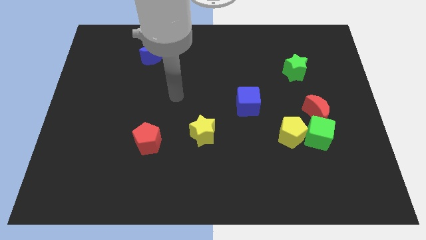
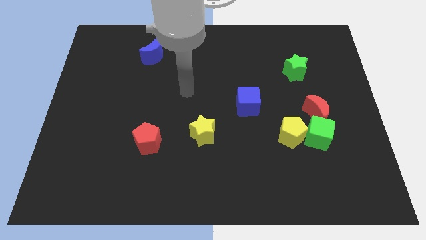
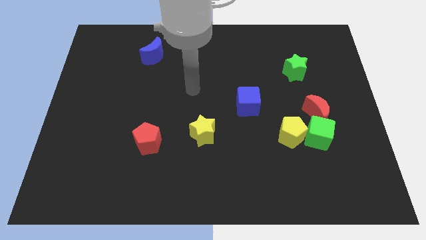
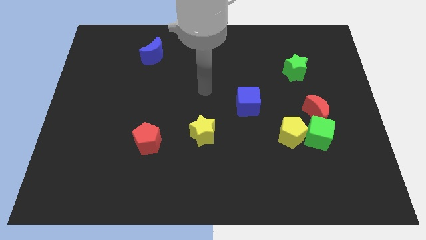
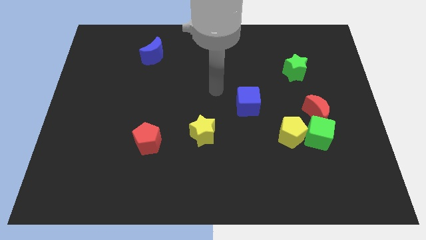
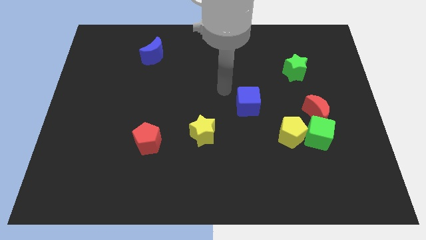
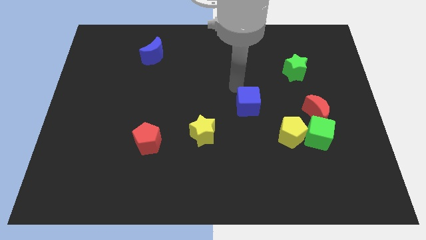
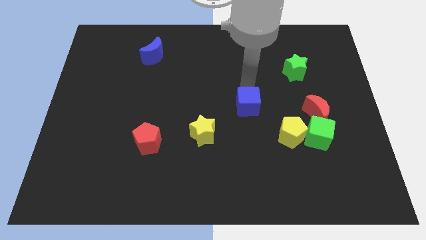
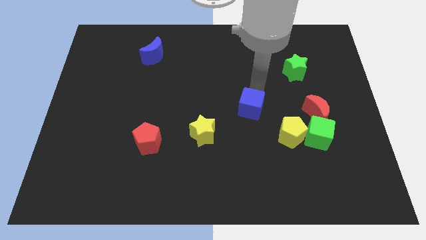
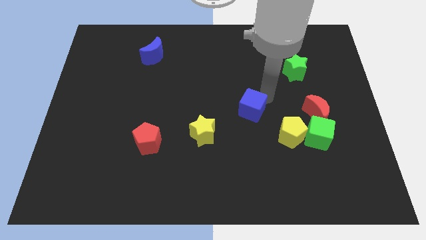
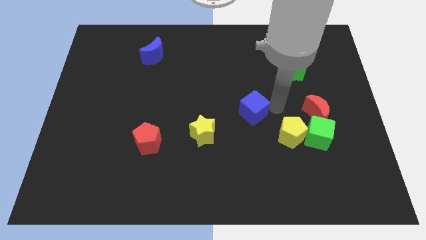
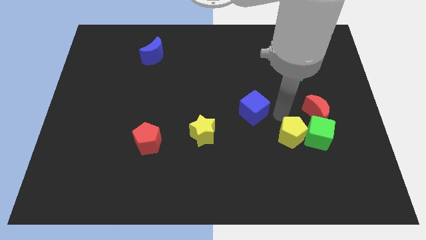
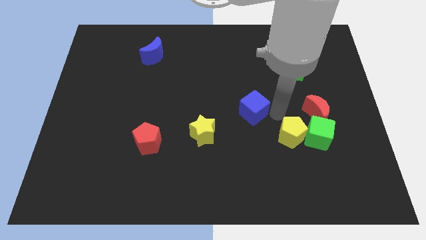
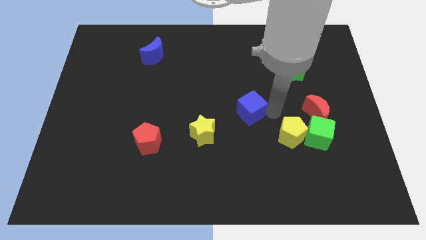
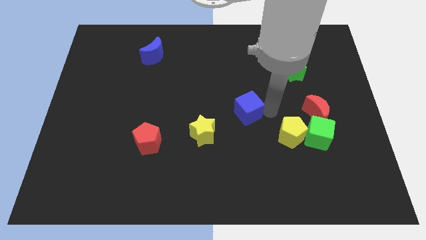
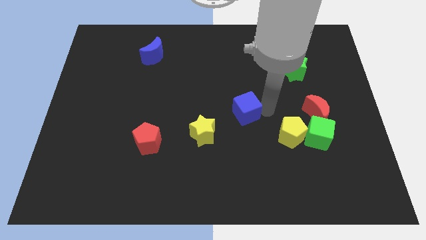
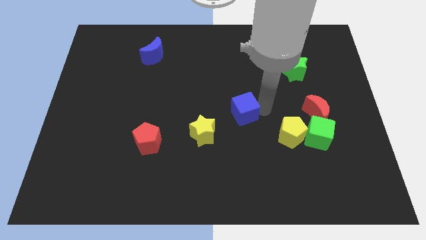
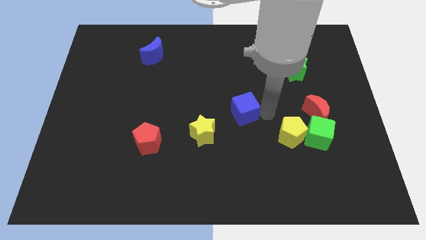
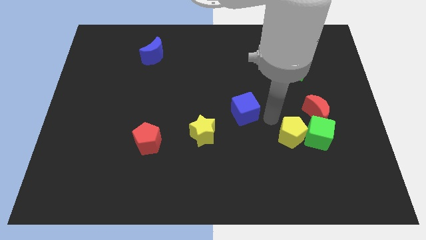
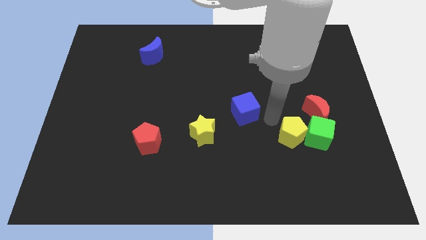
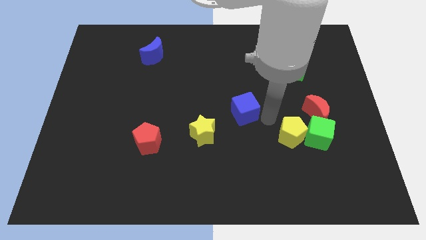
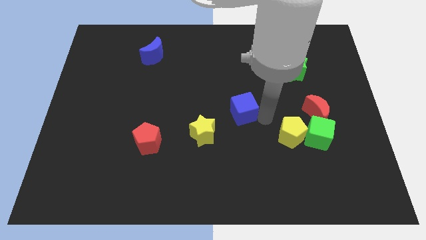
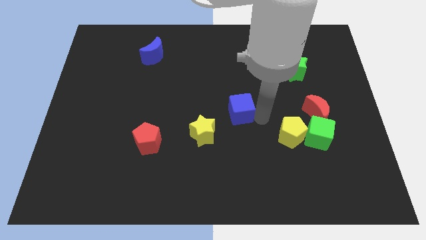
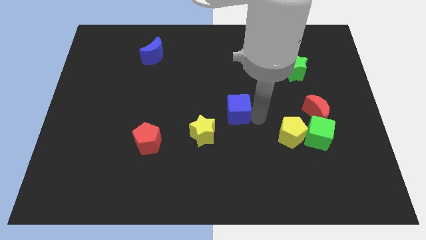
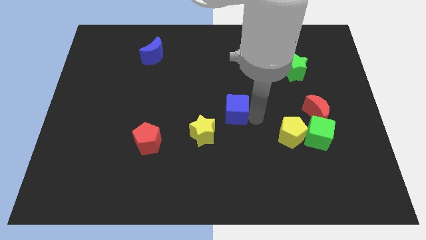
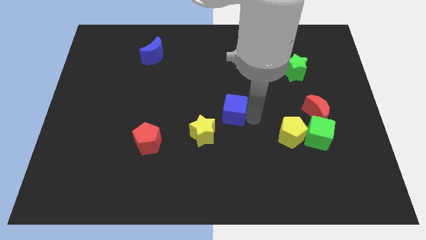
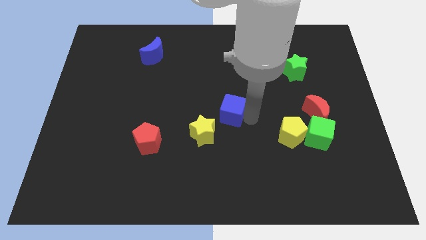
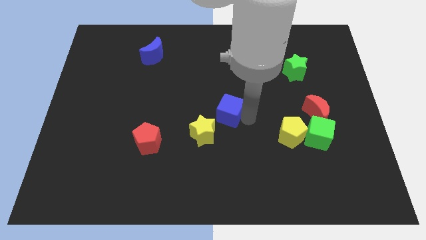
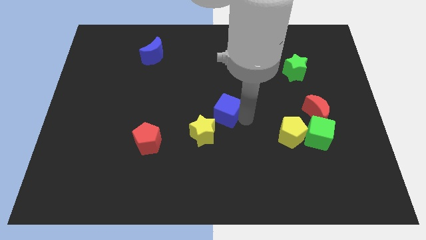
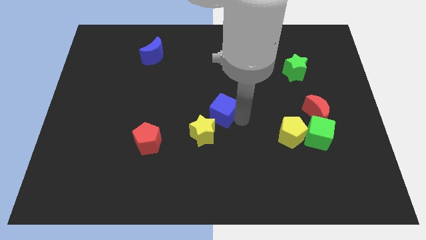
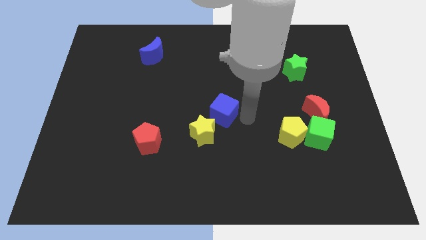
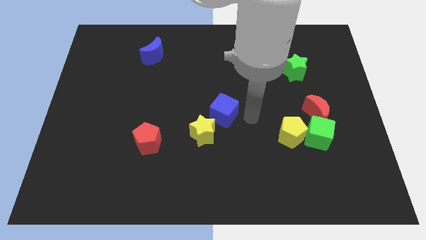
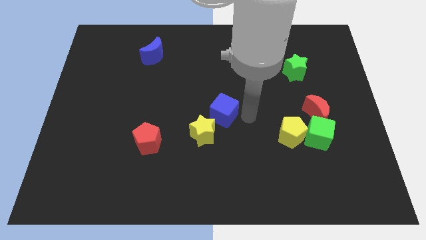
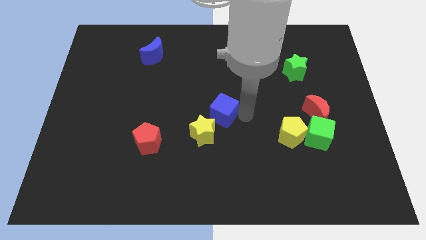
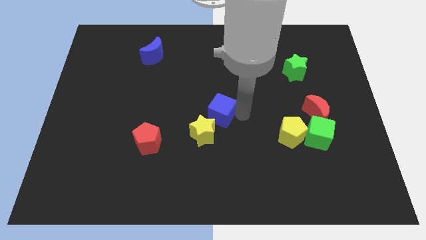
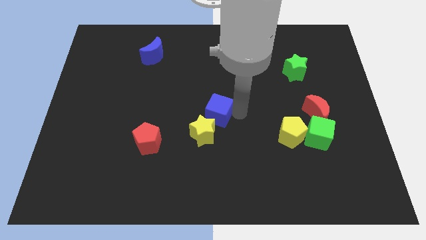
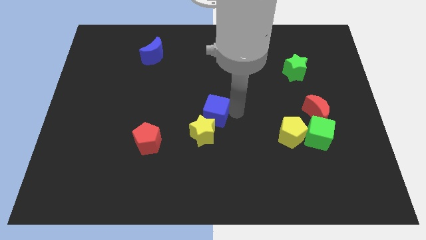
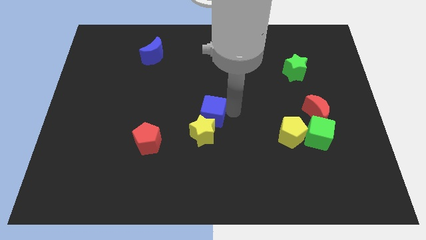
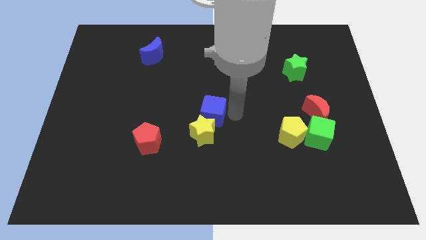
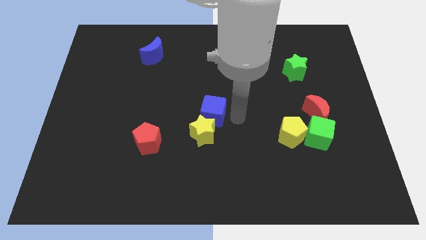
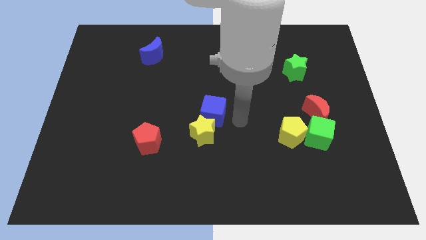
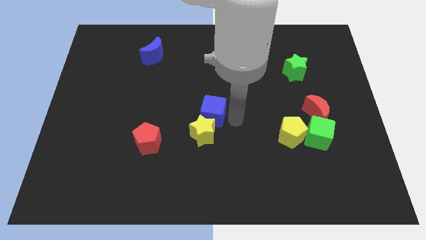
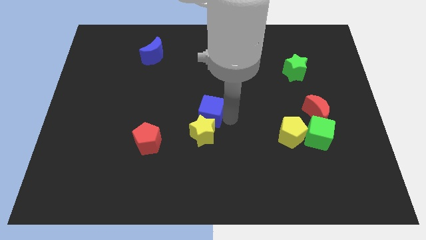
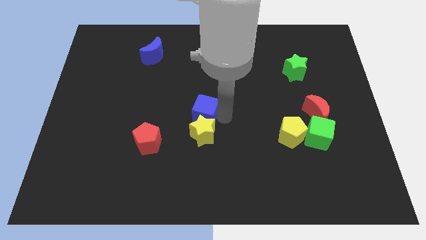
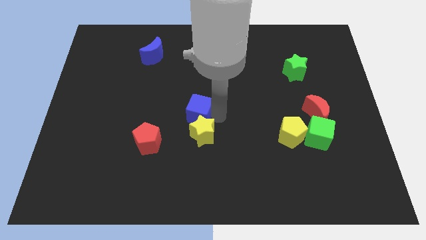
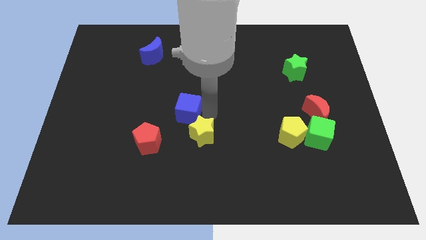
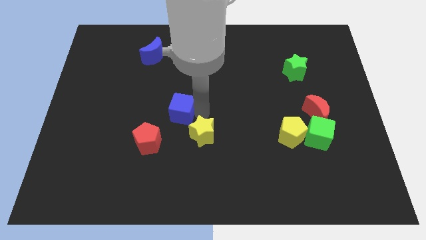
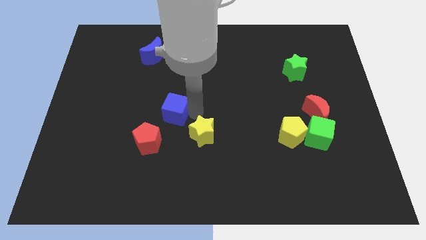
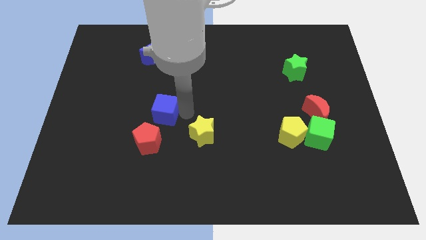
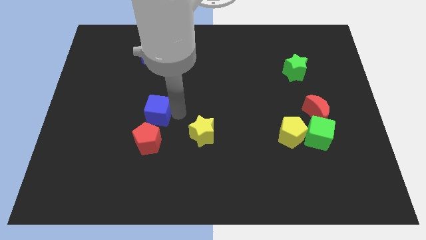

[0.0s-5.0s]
slide the blue cube to the left

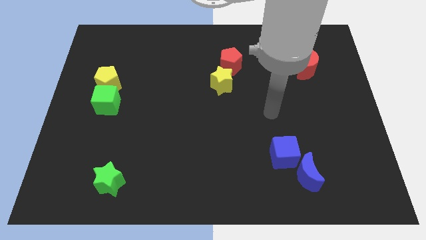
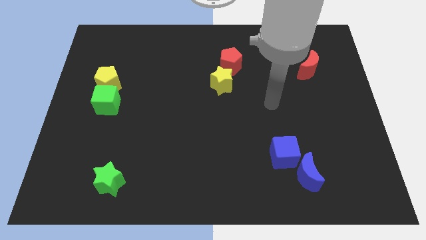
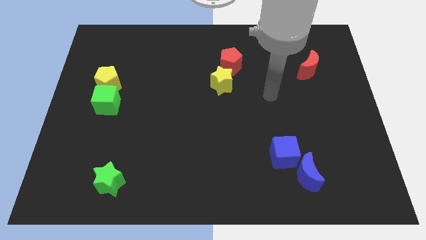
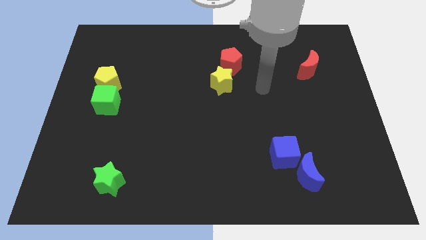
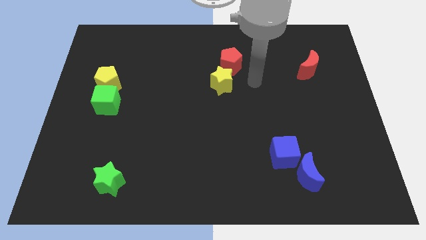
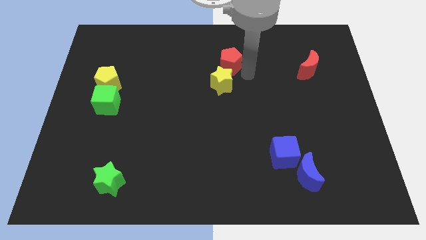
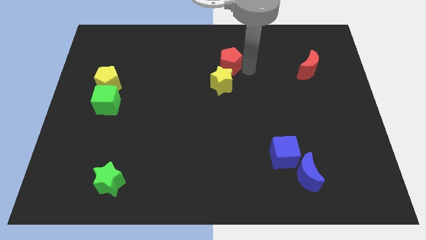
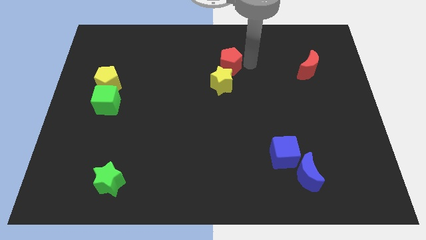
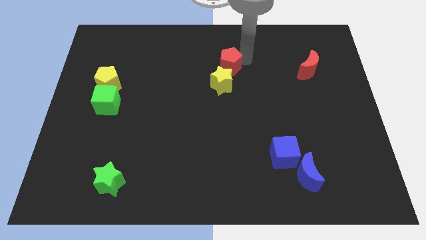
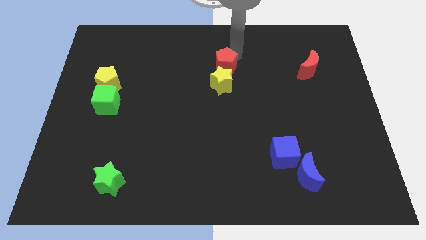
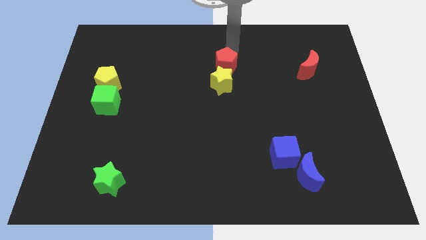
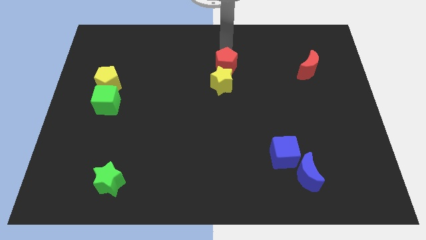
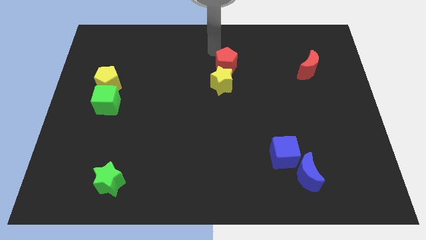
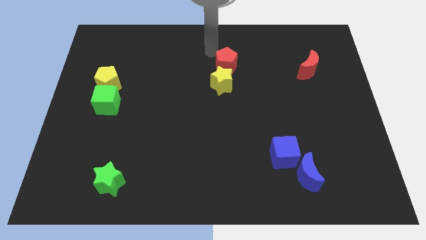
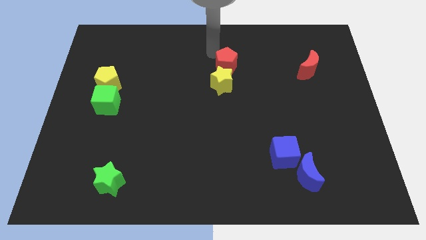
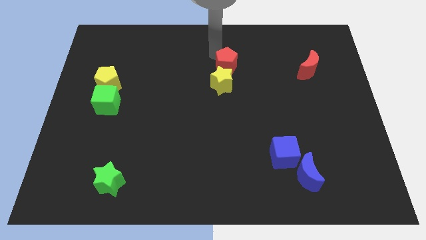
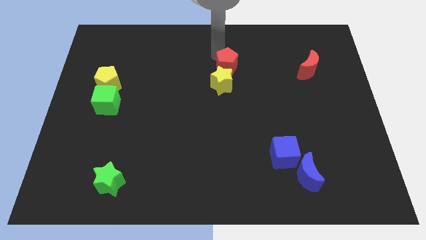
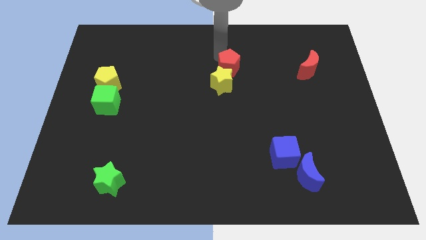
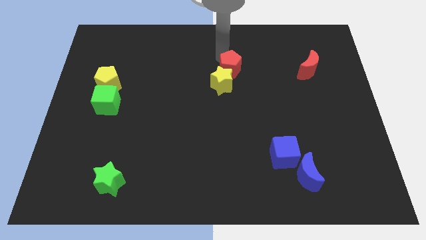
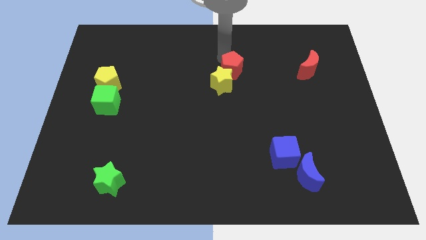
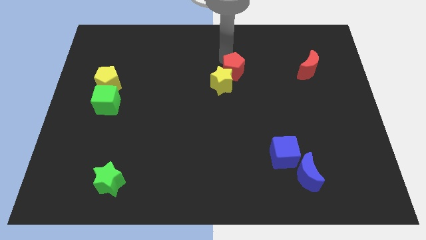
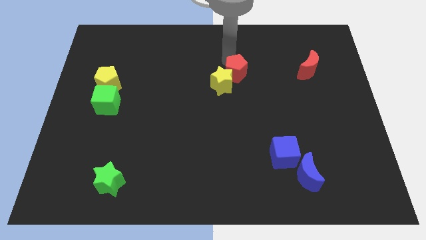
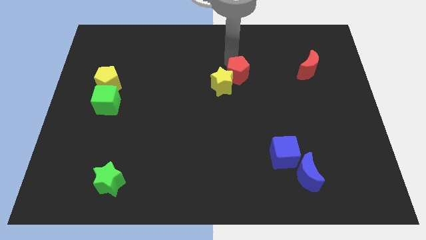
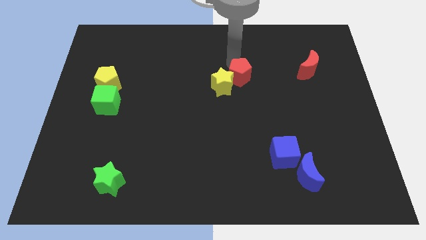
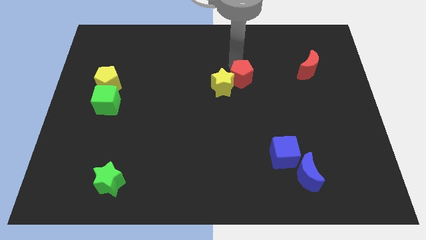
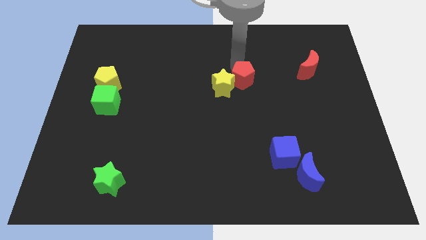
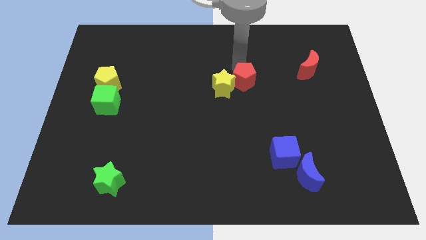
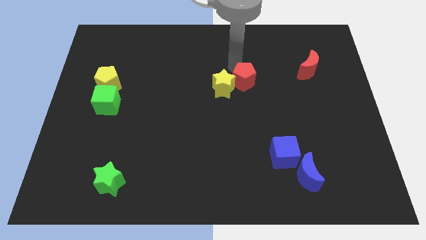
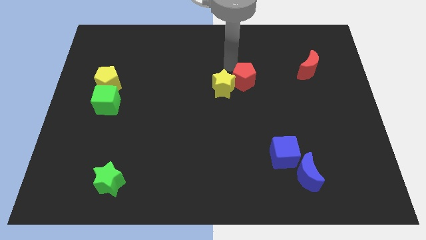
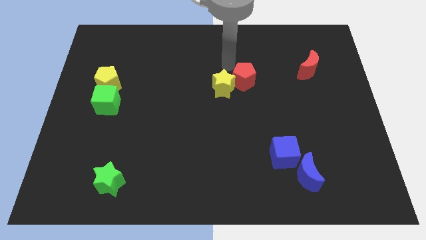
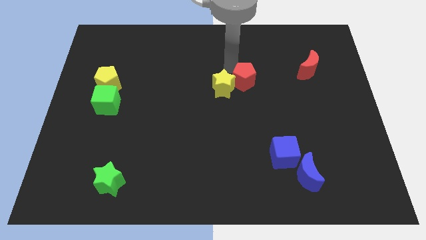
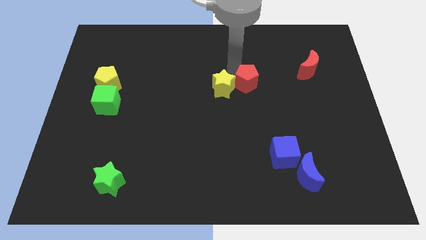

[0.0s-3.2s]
slightly push the red pentagon downwards and then to the right
